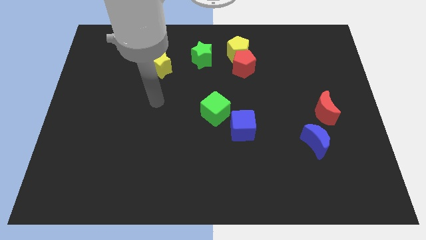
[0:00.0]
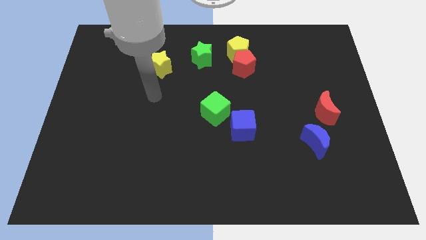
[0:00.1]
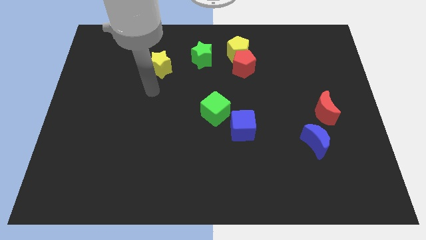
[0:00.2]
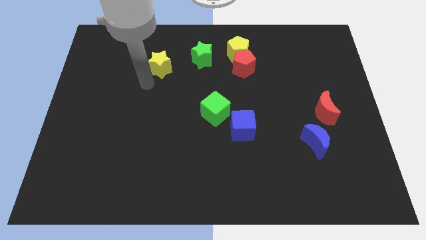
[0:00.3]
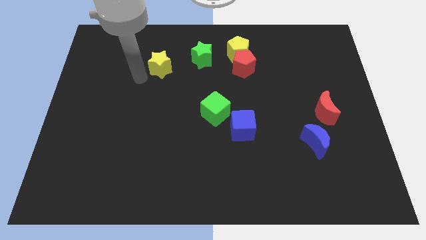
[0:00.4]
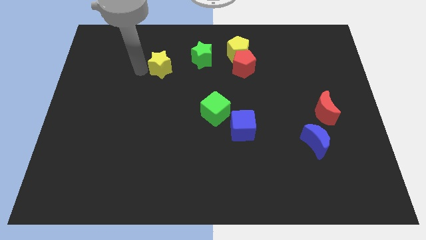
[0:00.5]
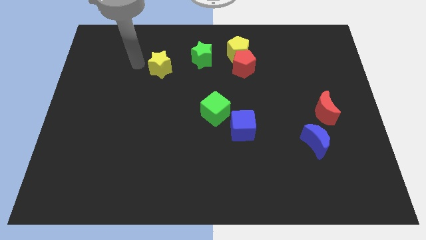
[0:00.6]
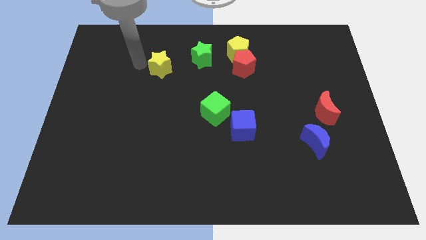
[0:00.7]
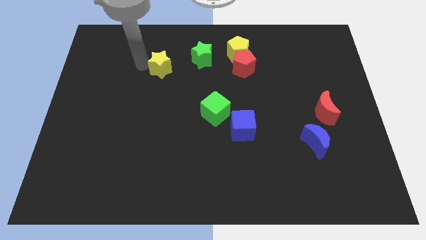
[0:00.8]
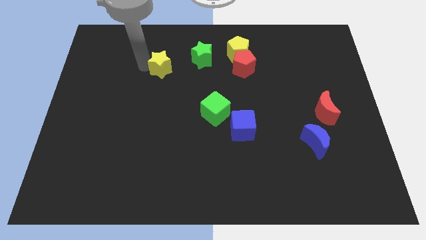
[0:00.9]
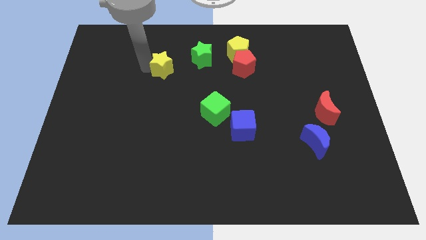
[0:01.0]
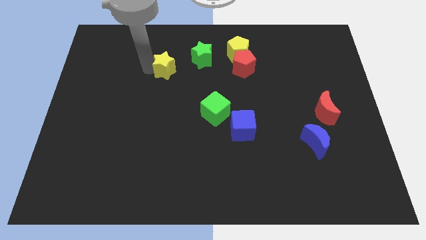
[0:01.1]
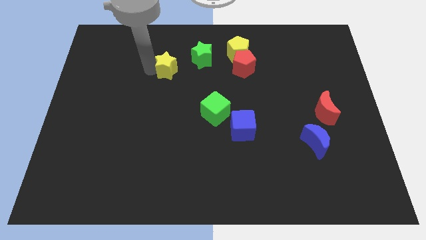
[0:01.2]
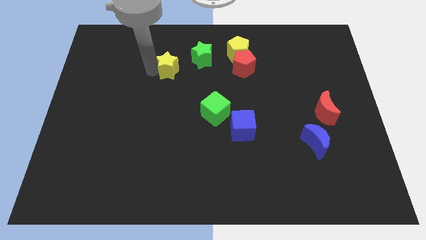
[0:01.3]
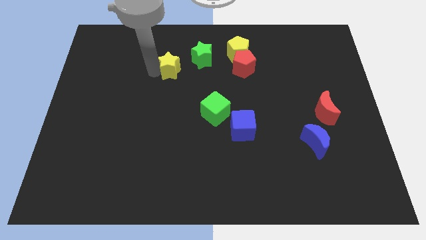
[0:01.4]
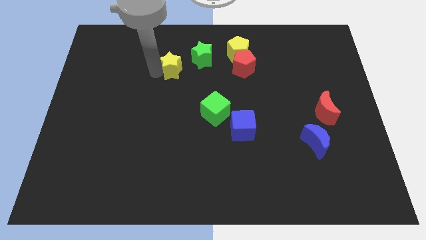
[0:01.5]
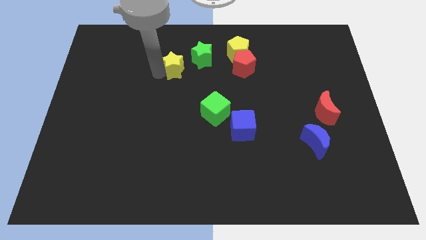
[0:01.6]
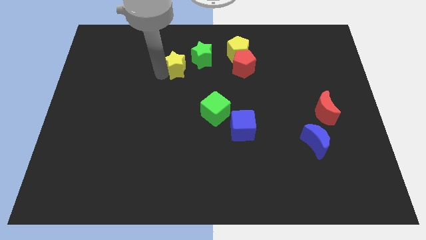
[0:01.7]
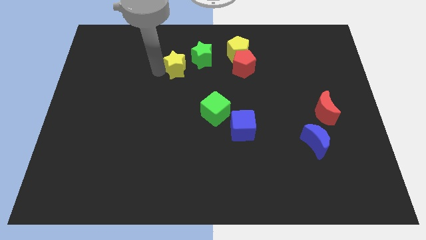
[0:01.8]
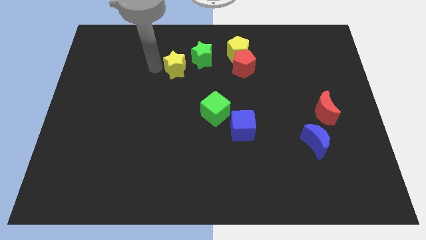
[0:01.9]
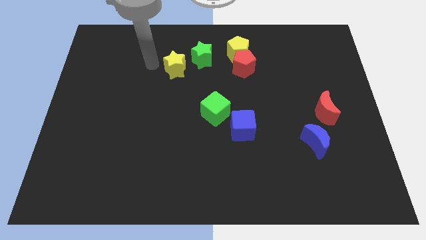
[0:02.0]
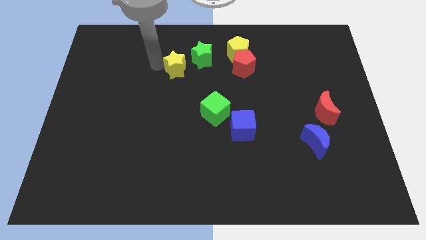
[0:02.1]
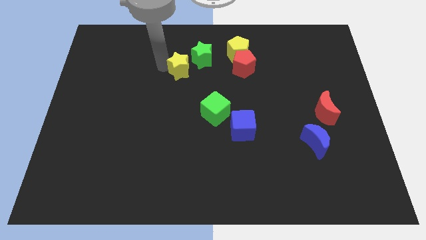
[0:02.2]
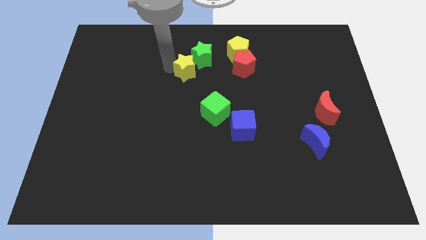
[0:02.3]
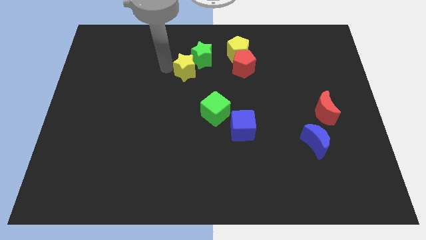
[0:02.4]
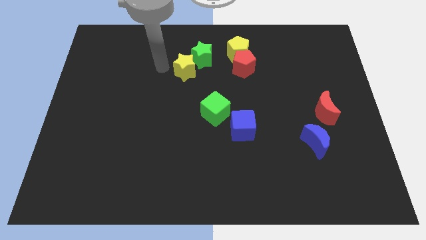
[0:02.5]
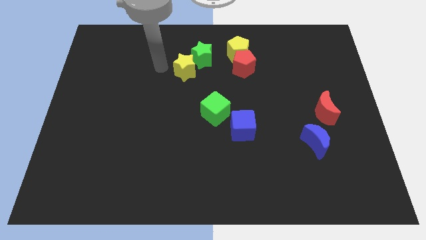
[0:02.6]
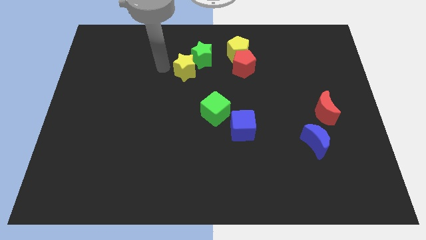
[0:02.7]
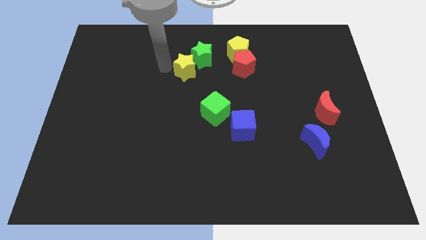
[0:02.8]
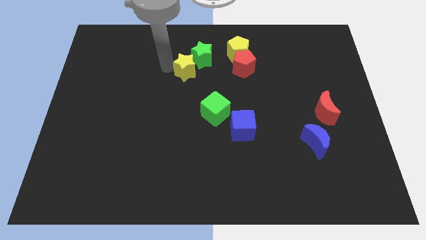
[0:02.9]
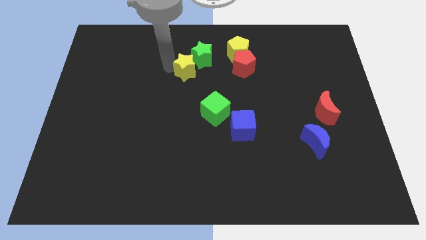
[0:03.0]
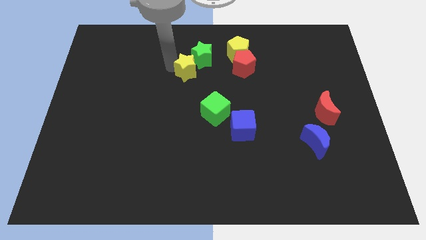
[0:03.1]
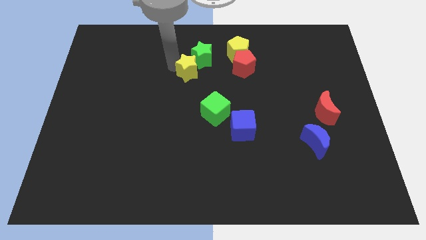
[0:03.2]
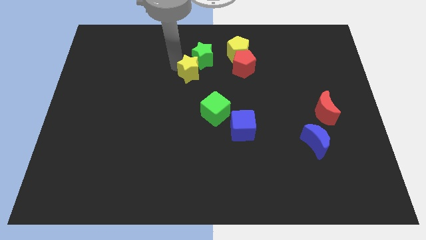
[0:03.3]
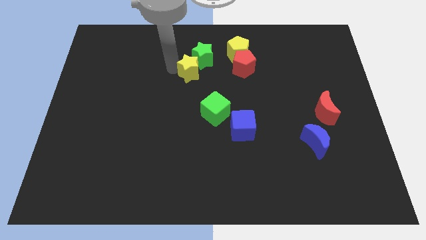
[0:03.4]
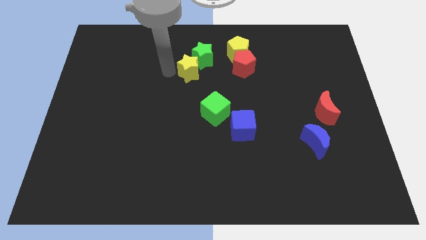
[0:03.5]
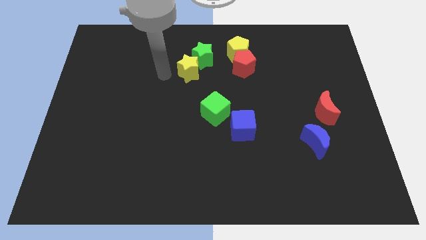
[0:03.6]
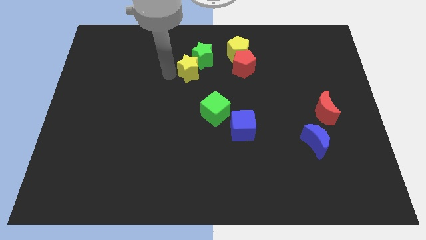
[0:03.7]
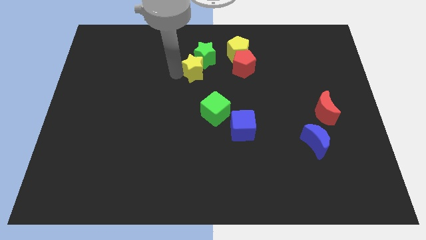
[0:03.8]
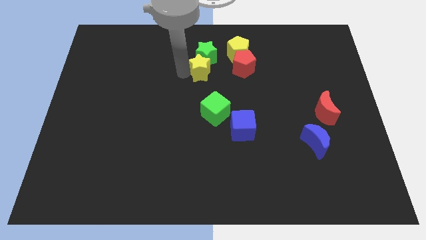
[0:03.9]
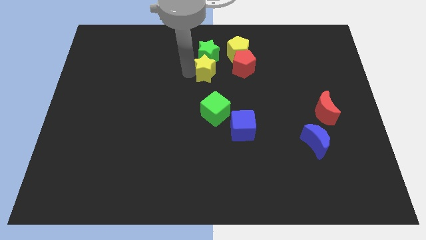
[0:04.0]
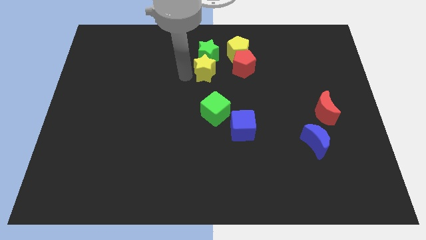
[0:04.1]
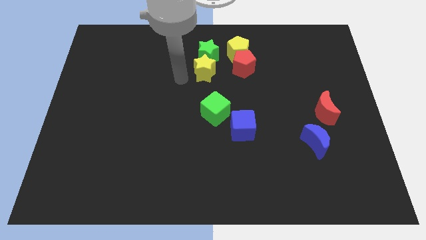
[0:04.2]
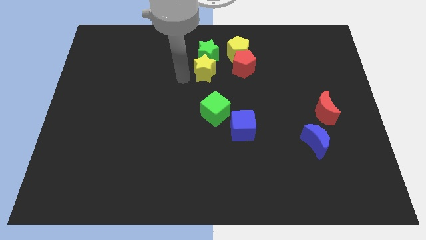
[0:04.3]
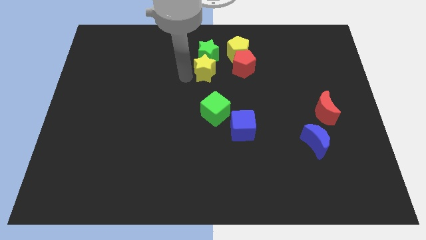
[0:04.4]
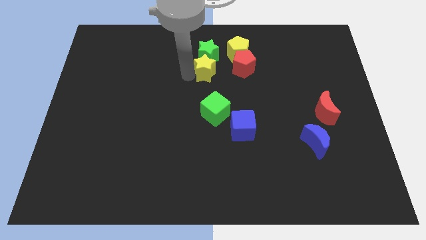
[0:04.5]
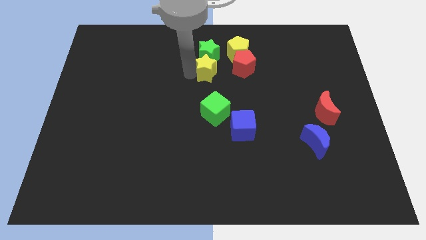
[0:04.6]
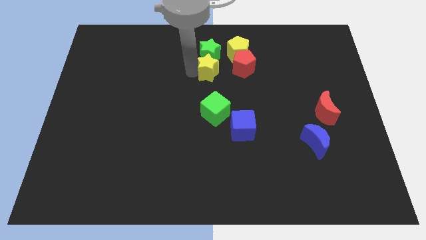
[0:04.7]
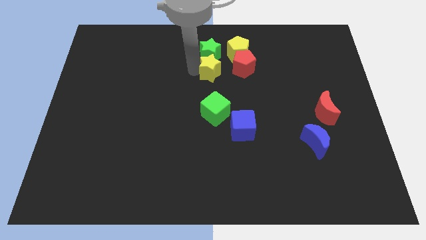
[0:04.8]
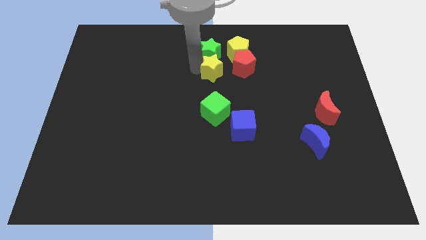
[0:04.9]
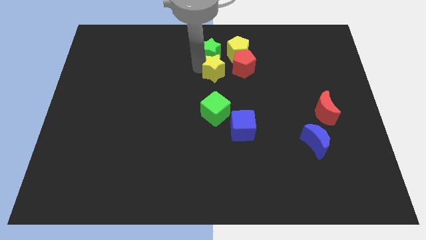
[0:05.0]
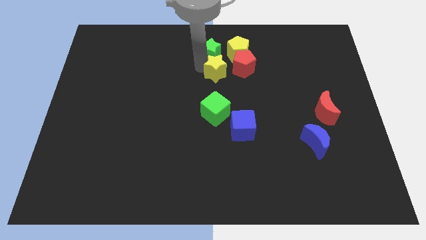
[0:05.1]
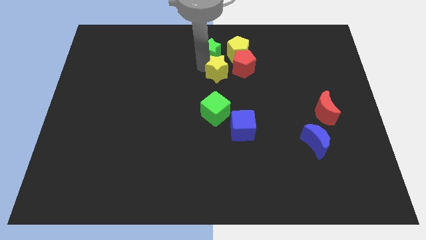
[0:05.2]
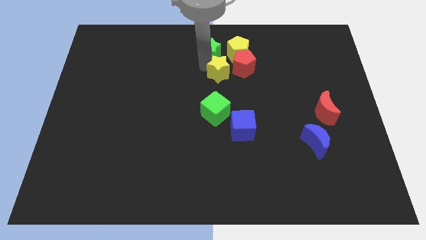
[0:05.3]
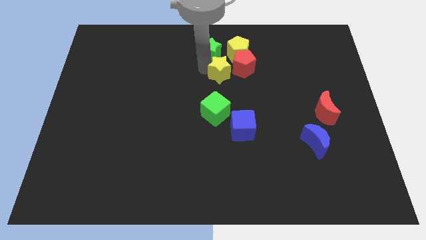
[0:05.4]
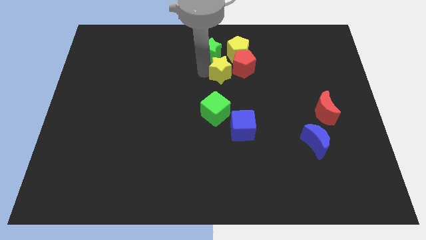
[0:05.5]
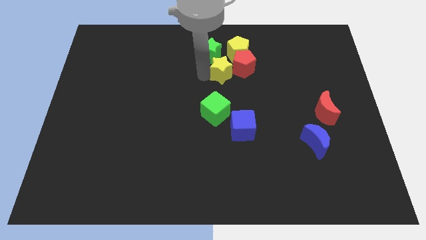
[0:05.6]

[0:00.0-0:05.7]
move the yellow star close to the red pentagon

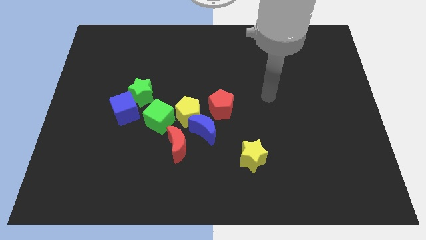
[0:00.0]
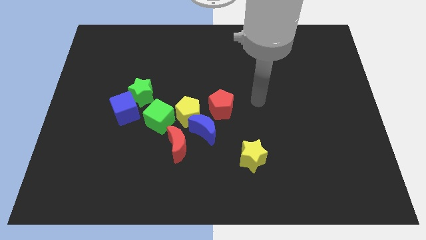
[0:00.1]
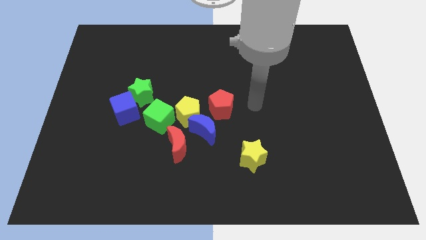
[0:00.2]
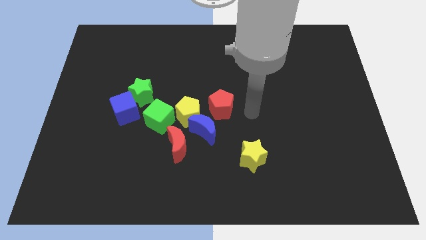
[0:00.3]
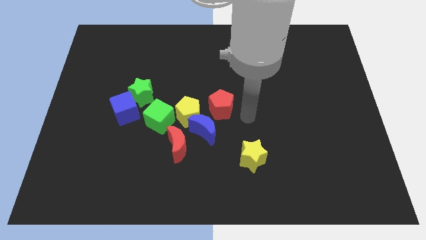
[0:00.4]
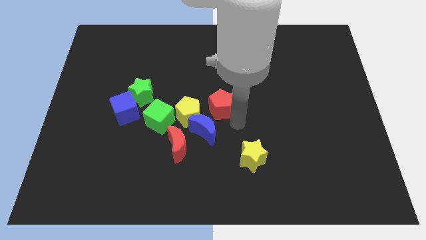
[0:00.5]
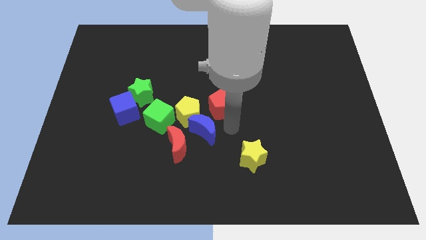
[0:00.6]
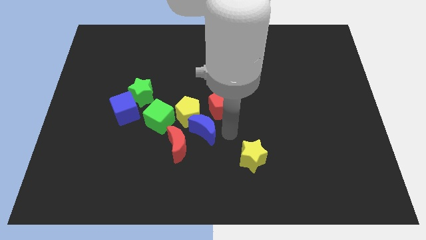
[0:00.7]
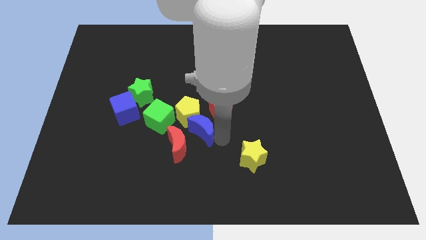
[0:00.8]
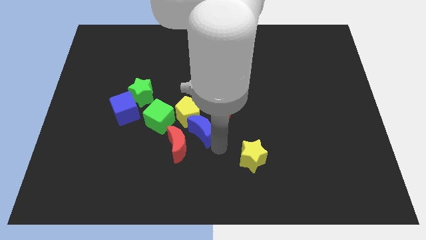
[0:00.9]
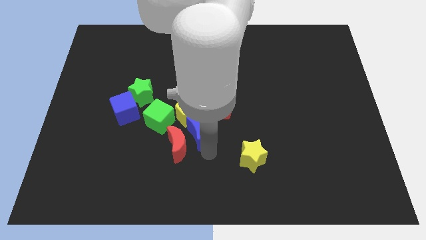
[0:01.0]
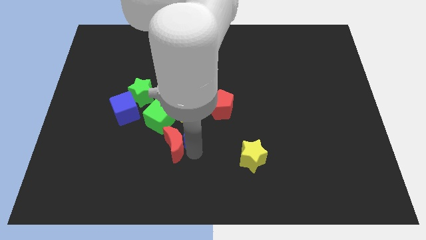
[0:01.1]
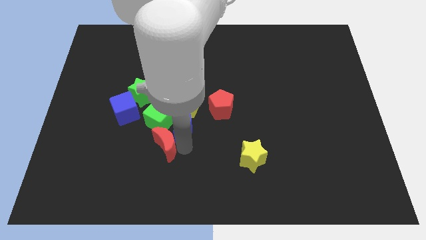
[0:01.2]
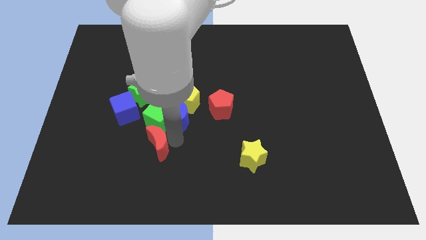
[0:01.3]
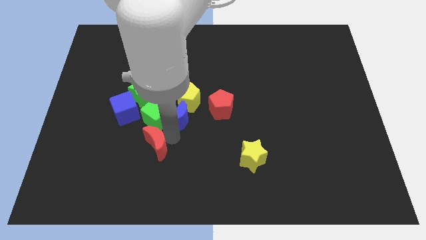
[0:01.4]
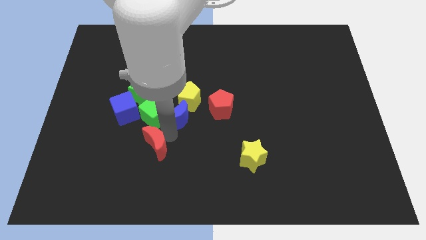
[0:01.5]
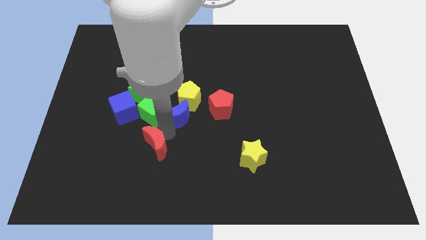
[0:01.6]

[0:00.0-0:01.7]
put the green cube close to the green star
